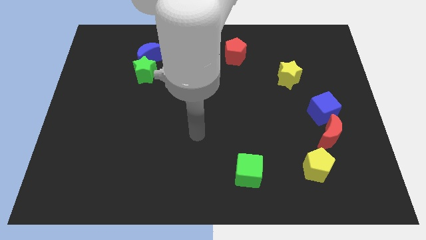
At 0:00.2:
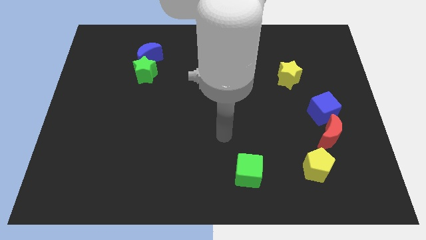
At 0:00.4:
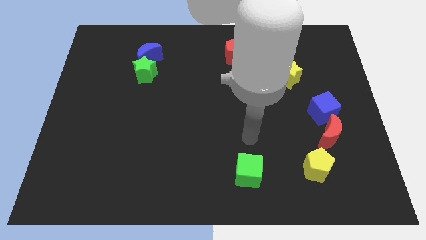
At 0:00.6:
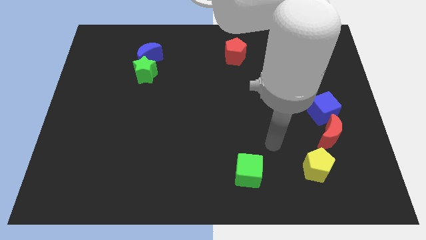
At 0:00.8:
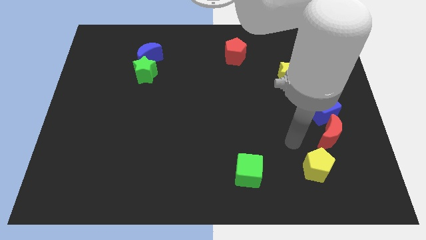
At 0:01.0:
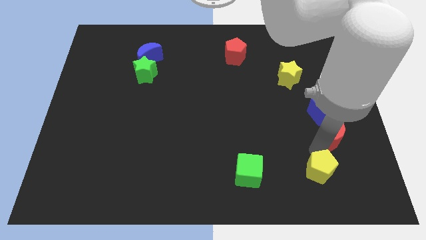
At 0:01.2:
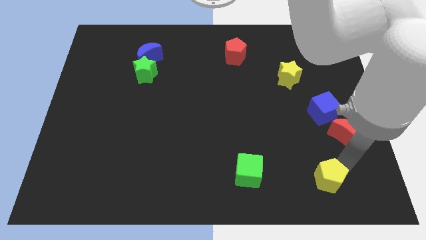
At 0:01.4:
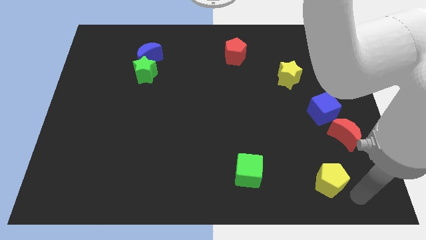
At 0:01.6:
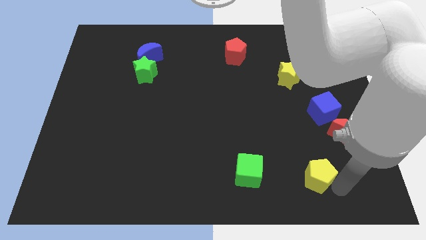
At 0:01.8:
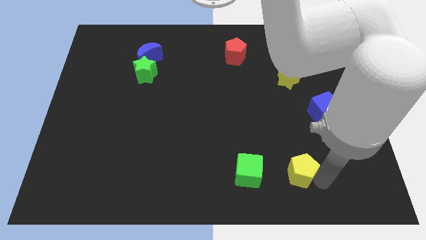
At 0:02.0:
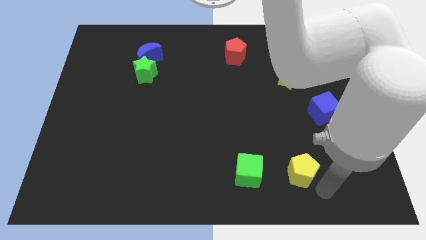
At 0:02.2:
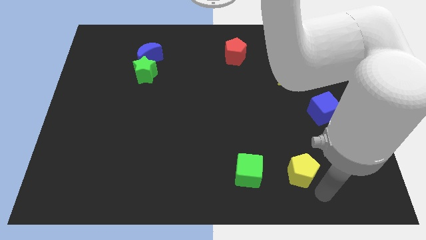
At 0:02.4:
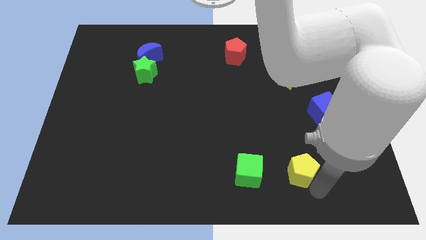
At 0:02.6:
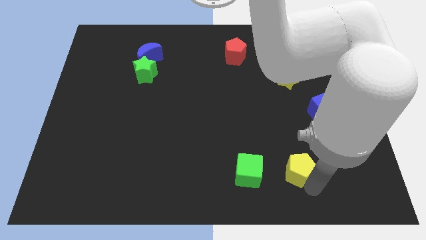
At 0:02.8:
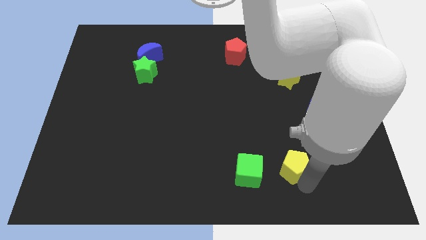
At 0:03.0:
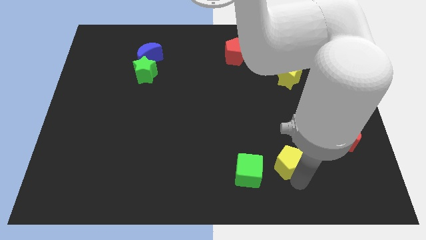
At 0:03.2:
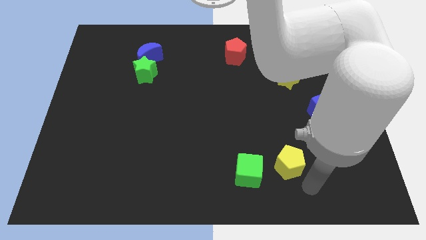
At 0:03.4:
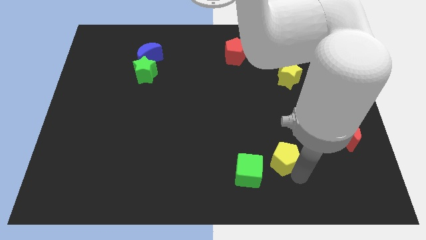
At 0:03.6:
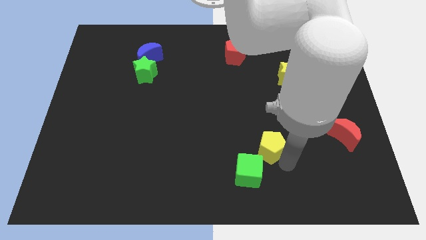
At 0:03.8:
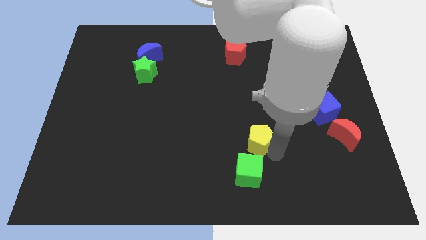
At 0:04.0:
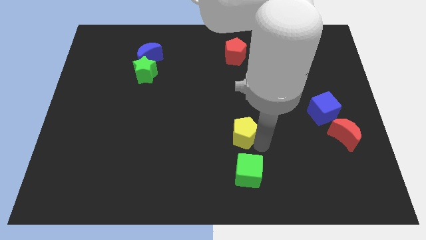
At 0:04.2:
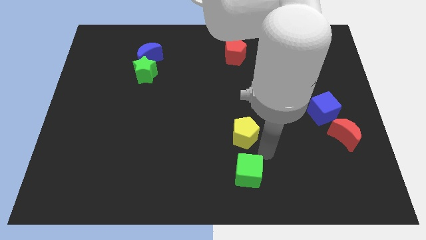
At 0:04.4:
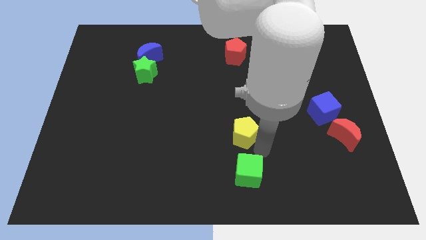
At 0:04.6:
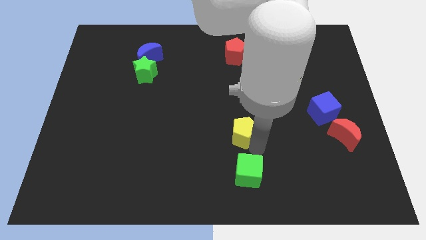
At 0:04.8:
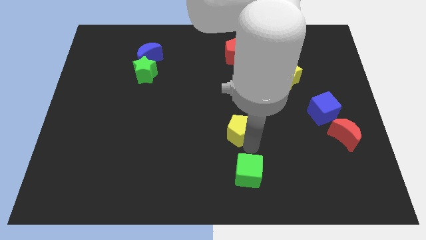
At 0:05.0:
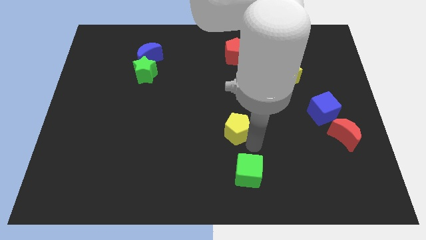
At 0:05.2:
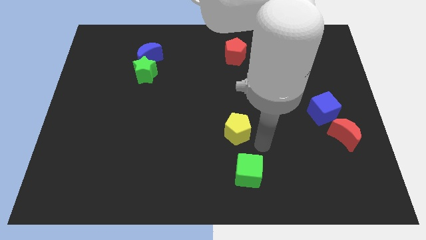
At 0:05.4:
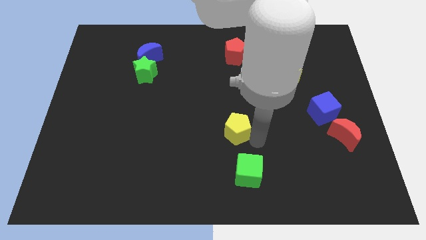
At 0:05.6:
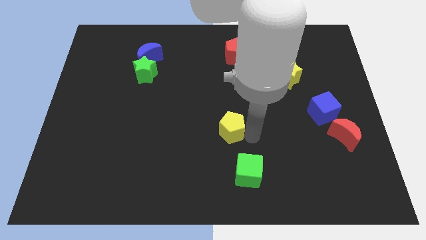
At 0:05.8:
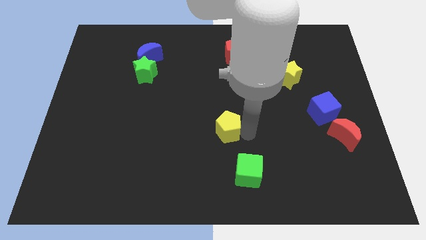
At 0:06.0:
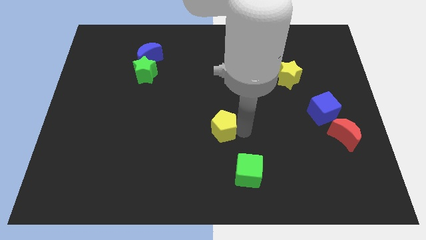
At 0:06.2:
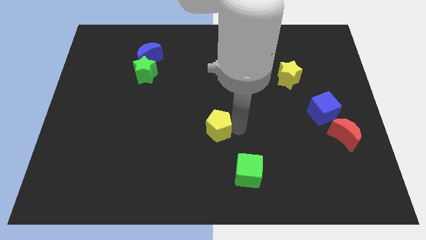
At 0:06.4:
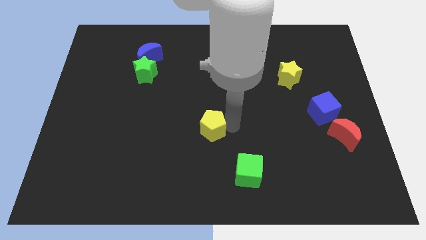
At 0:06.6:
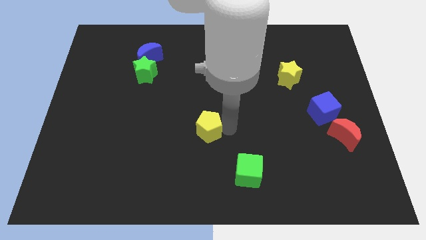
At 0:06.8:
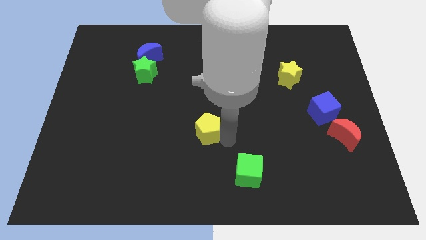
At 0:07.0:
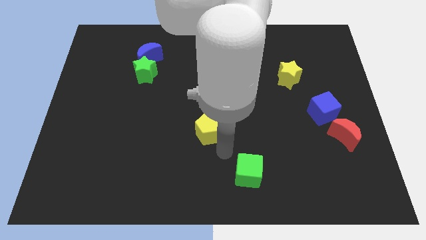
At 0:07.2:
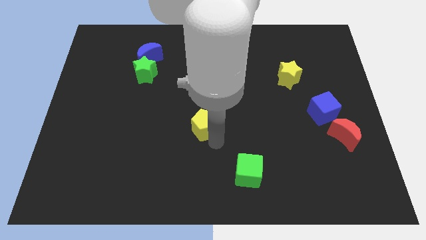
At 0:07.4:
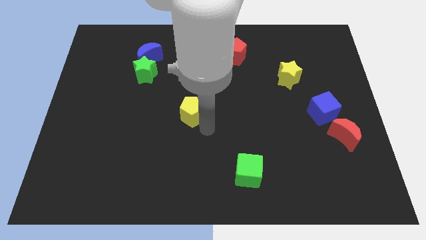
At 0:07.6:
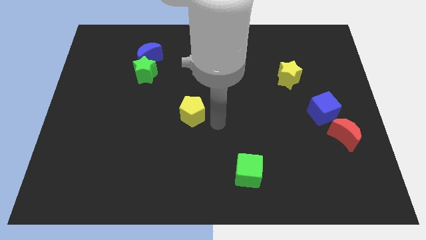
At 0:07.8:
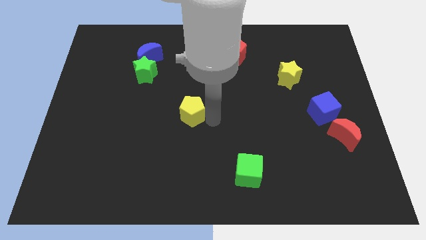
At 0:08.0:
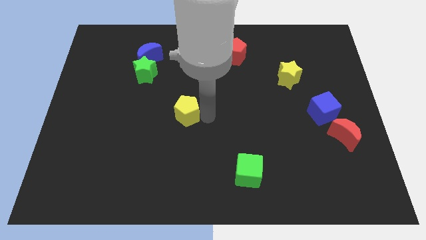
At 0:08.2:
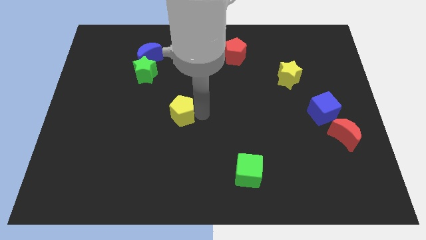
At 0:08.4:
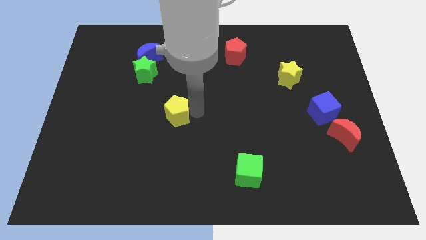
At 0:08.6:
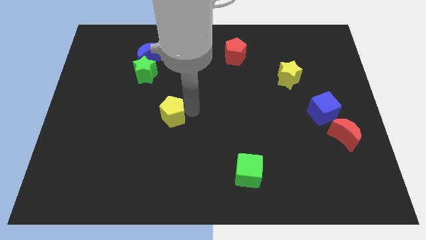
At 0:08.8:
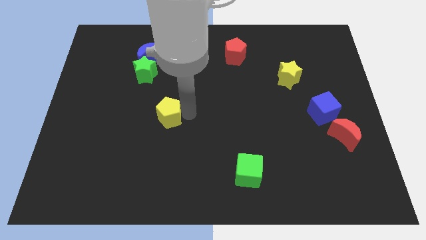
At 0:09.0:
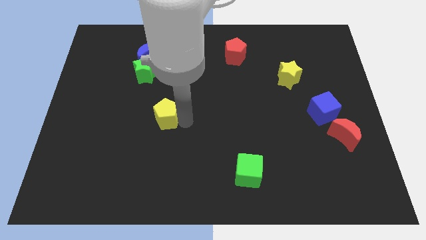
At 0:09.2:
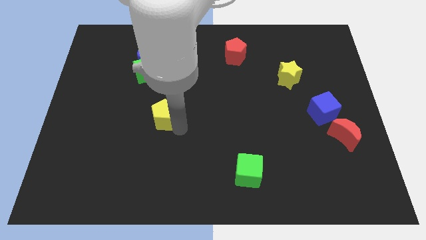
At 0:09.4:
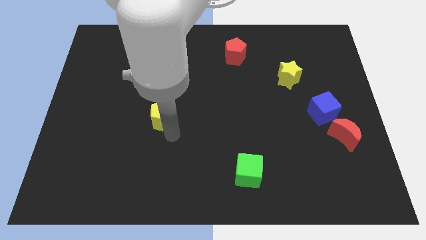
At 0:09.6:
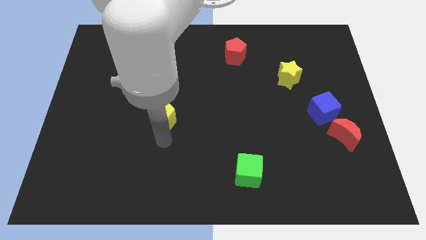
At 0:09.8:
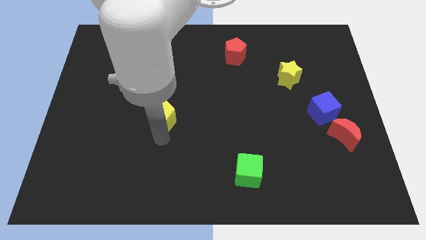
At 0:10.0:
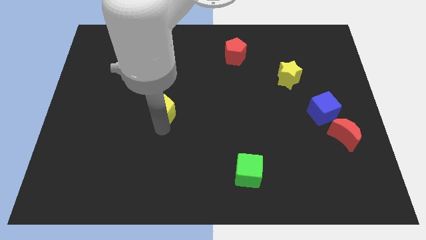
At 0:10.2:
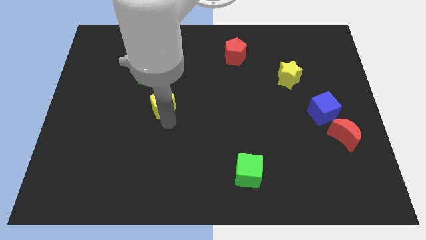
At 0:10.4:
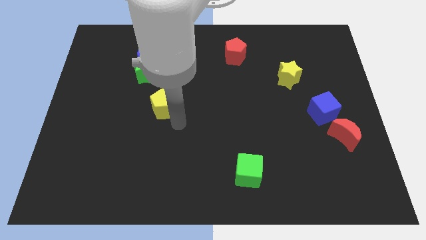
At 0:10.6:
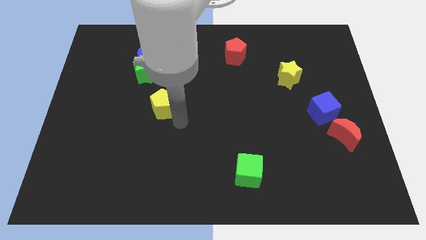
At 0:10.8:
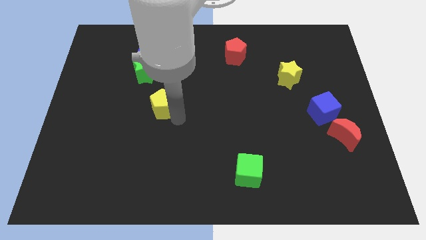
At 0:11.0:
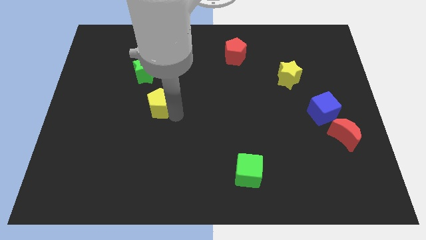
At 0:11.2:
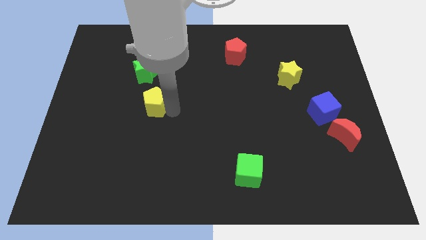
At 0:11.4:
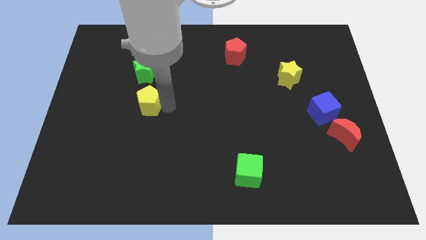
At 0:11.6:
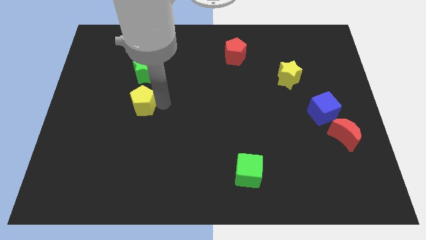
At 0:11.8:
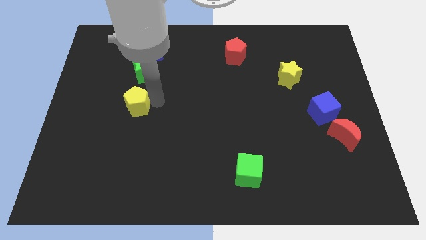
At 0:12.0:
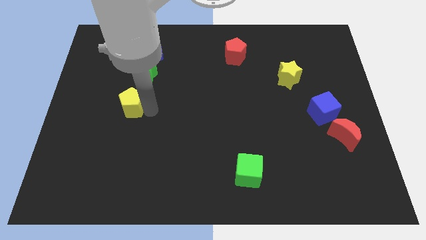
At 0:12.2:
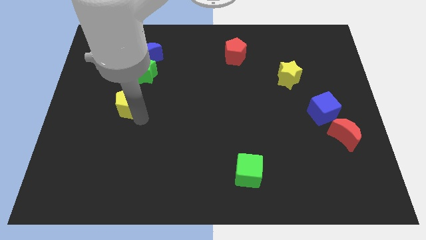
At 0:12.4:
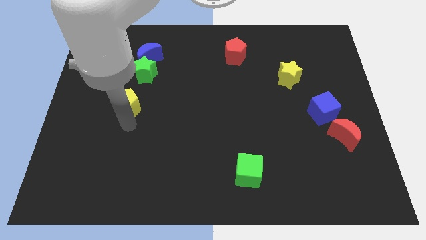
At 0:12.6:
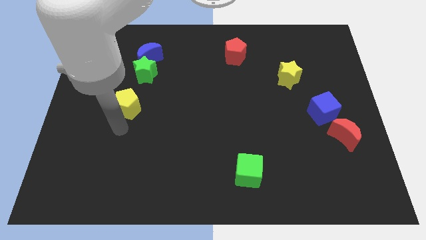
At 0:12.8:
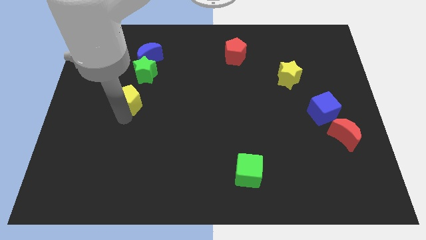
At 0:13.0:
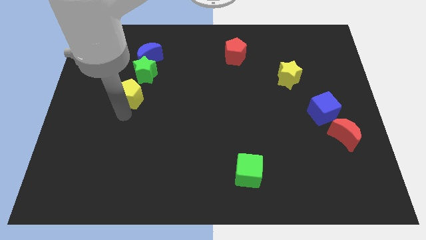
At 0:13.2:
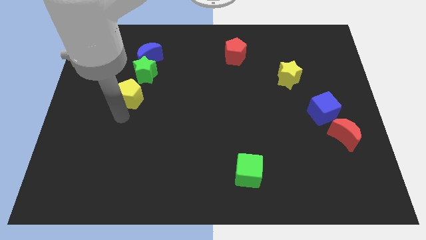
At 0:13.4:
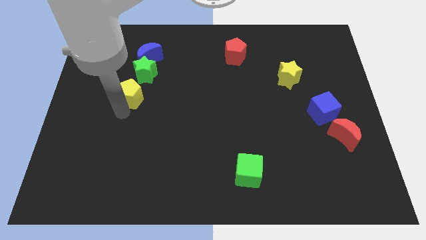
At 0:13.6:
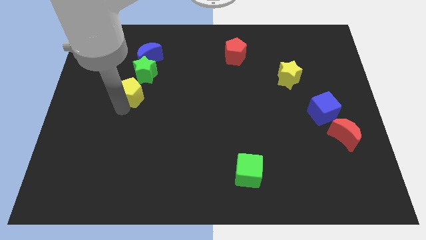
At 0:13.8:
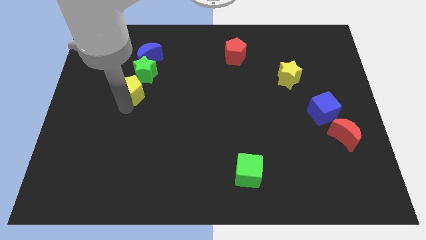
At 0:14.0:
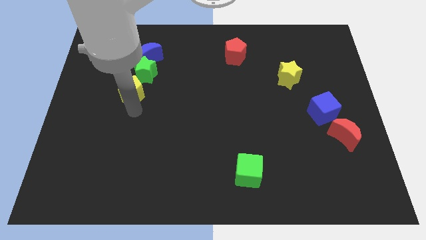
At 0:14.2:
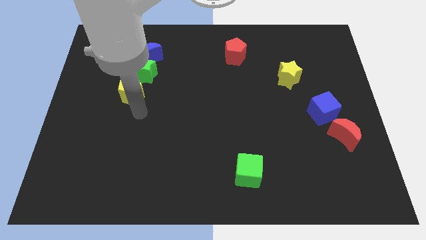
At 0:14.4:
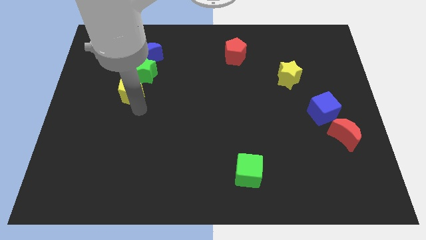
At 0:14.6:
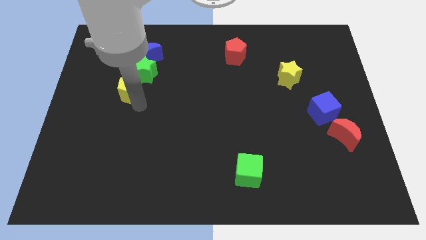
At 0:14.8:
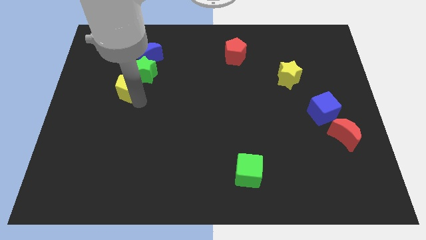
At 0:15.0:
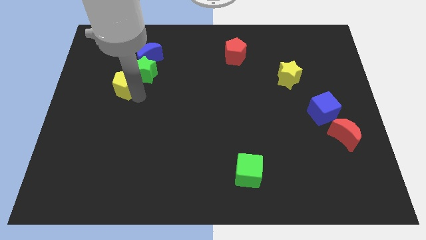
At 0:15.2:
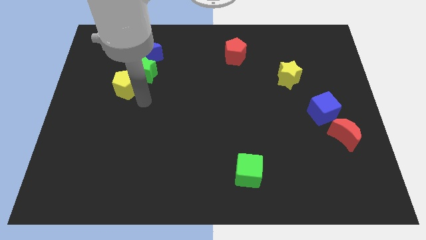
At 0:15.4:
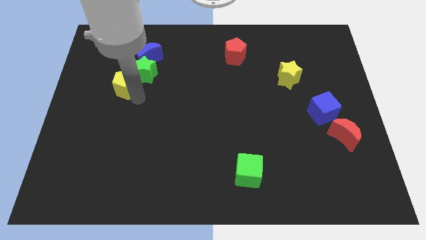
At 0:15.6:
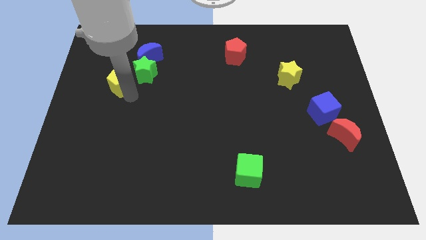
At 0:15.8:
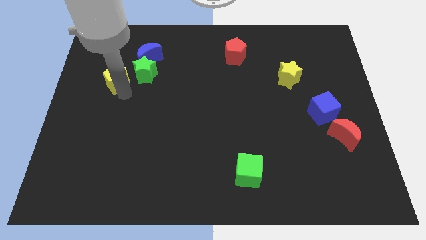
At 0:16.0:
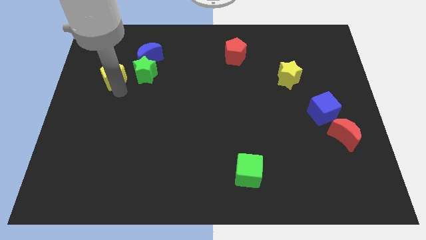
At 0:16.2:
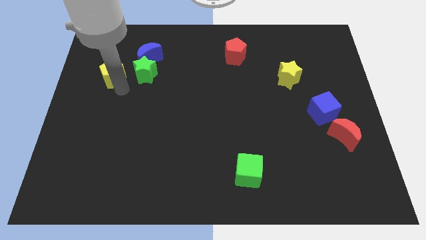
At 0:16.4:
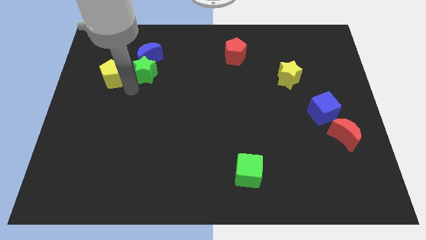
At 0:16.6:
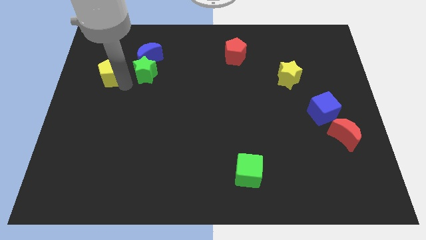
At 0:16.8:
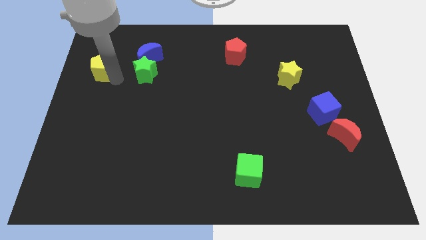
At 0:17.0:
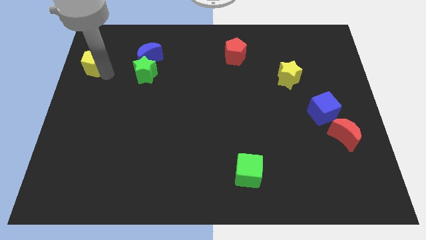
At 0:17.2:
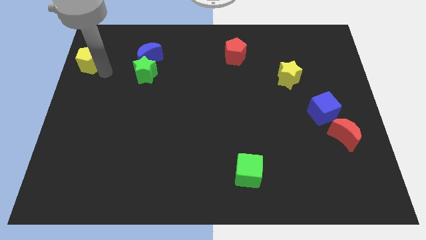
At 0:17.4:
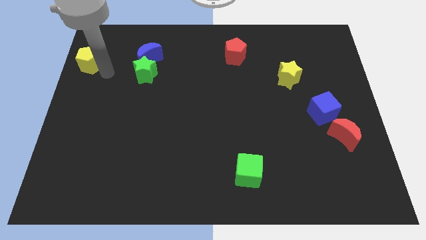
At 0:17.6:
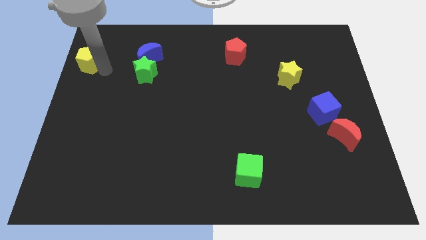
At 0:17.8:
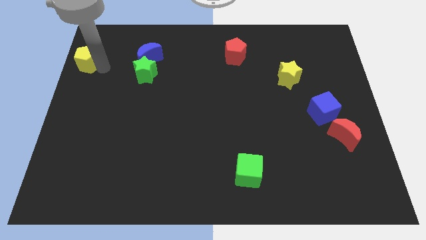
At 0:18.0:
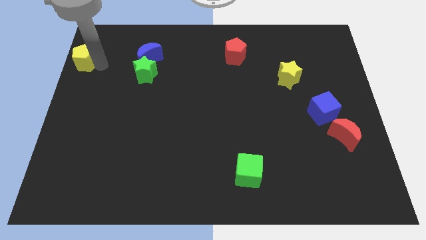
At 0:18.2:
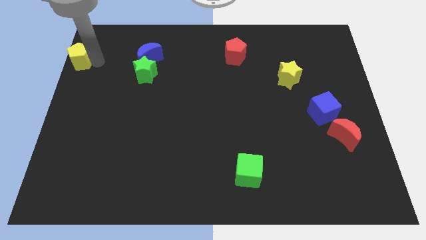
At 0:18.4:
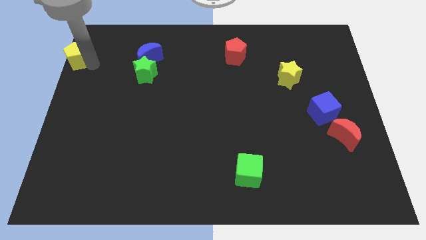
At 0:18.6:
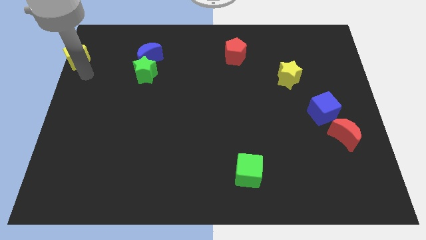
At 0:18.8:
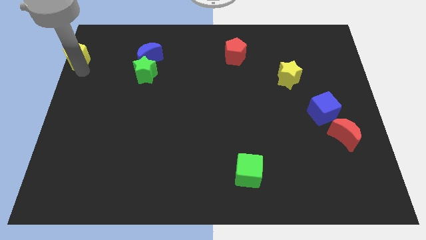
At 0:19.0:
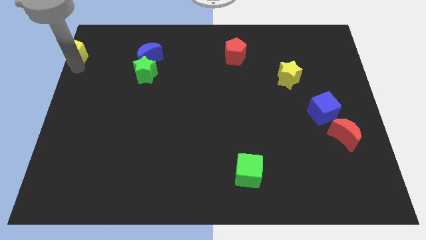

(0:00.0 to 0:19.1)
slide the yellow pentagon to the top left corner
